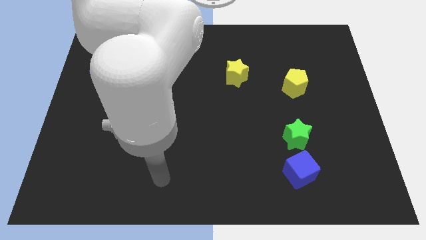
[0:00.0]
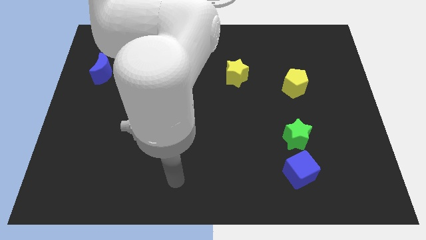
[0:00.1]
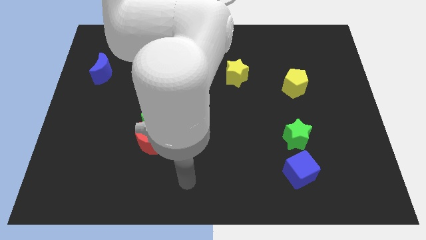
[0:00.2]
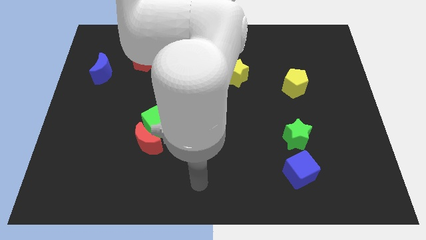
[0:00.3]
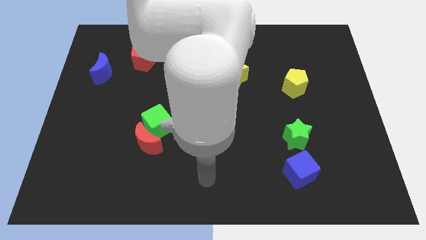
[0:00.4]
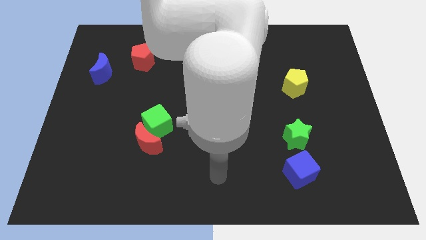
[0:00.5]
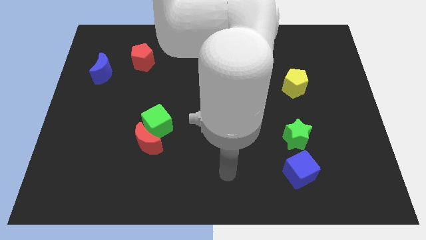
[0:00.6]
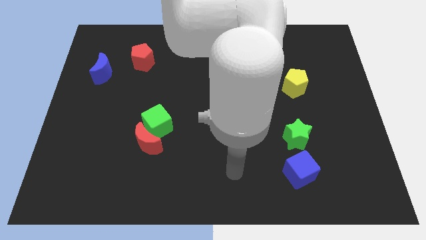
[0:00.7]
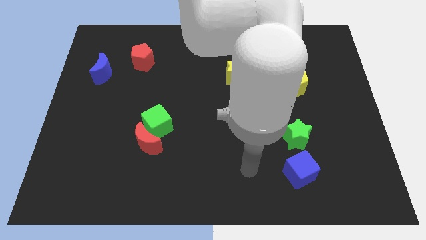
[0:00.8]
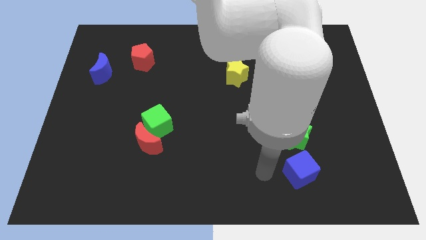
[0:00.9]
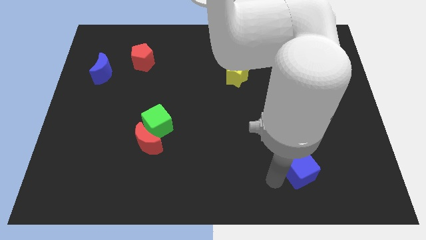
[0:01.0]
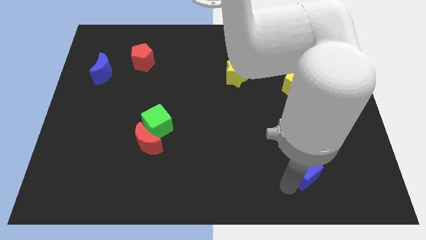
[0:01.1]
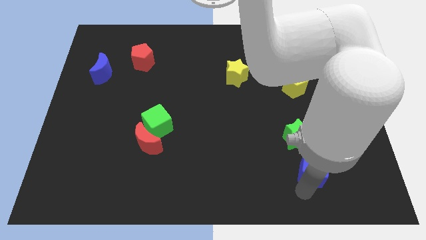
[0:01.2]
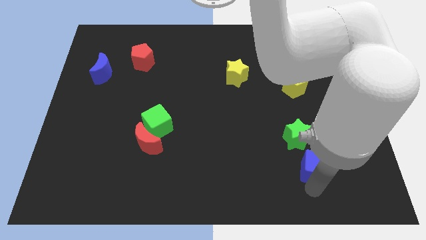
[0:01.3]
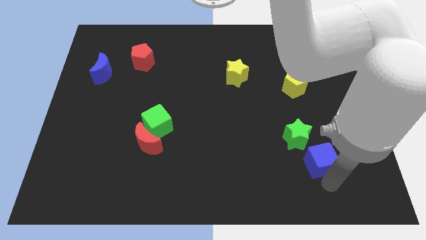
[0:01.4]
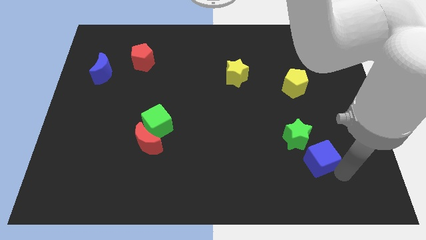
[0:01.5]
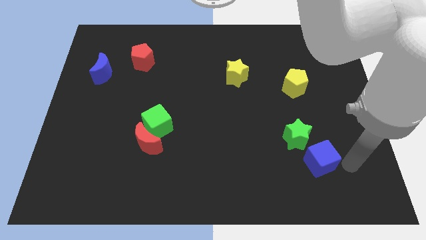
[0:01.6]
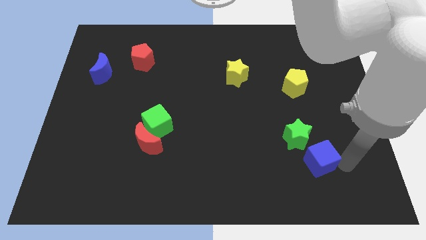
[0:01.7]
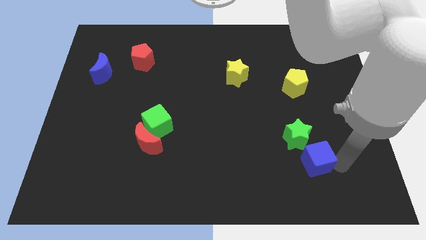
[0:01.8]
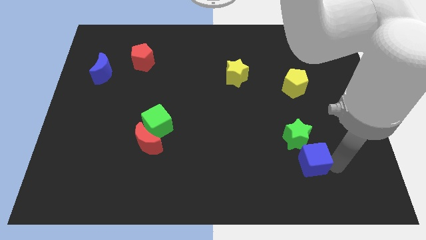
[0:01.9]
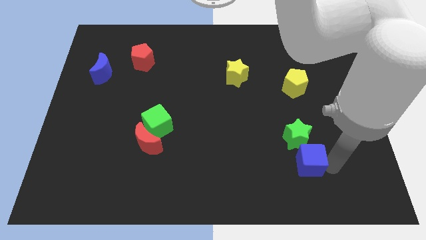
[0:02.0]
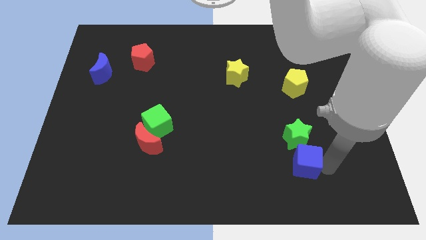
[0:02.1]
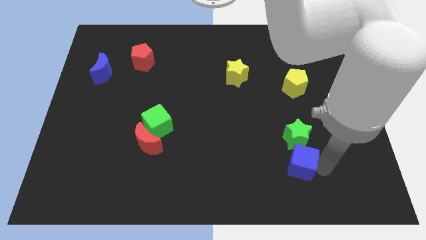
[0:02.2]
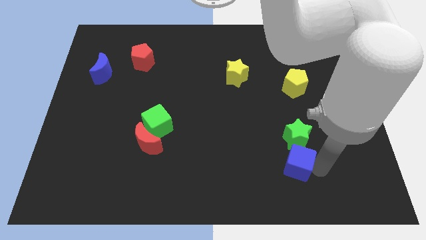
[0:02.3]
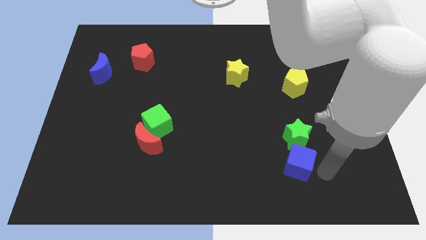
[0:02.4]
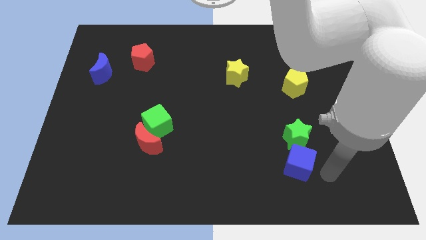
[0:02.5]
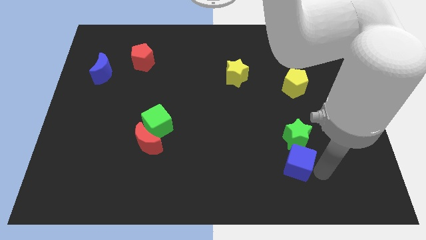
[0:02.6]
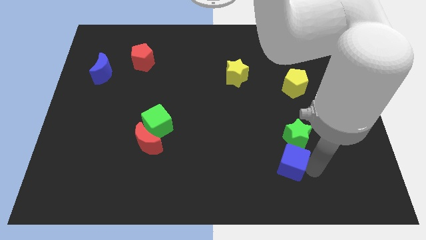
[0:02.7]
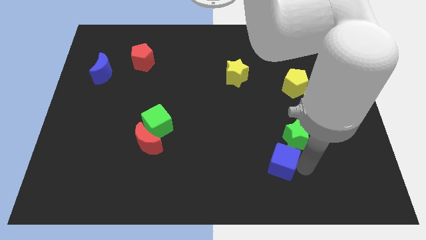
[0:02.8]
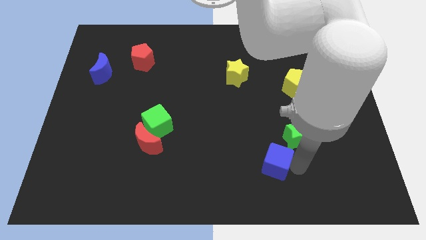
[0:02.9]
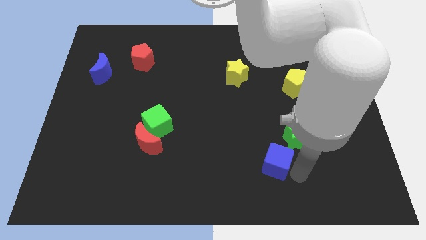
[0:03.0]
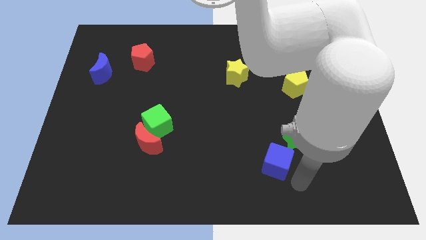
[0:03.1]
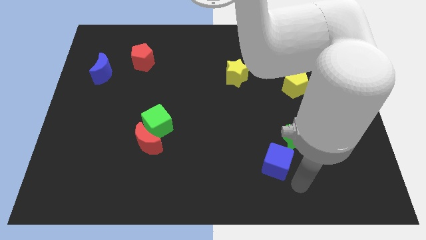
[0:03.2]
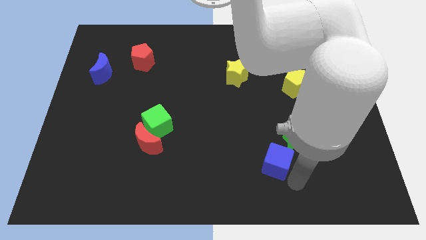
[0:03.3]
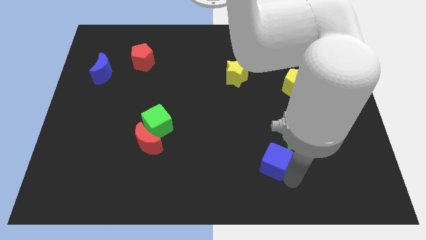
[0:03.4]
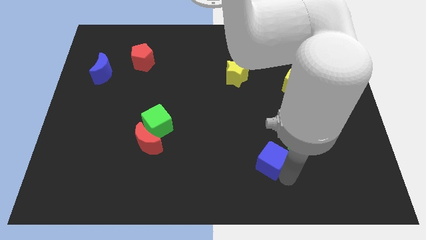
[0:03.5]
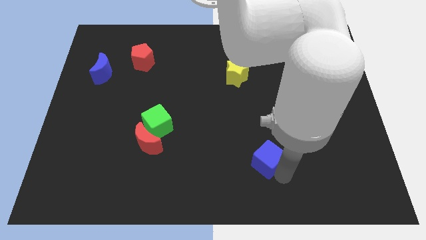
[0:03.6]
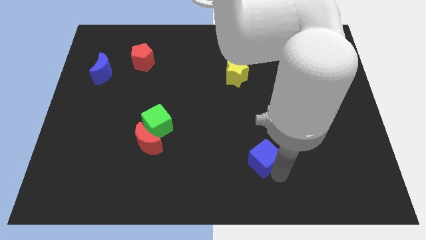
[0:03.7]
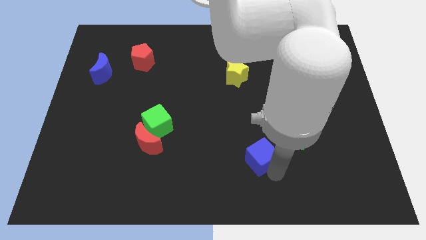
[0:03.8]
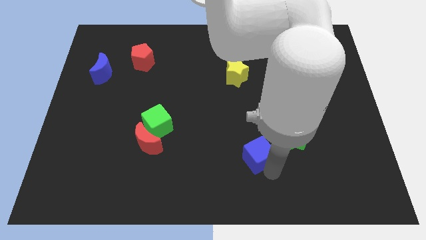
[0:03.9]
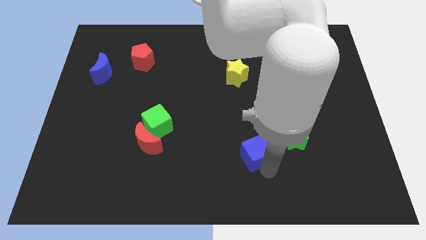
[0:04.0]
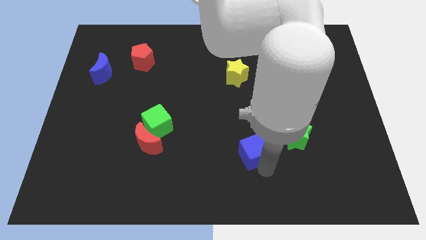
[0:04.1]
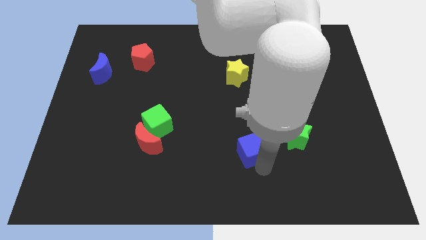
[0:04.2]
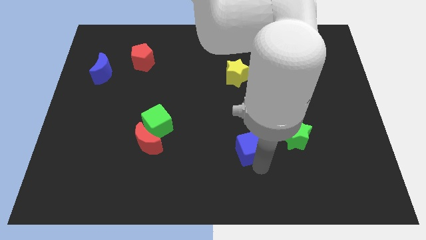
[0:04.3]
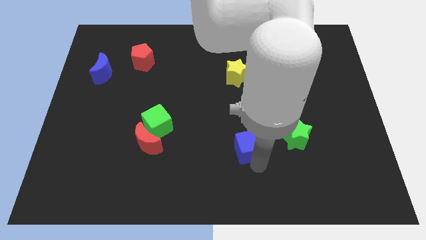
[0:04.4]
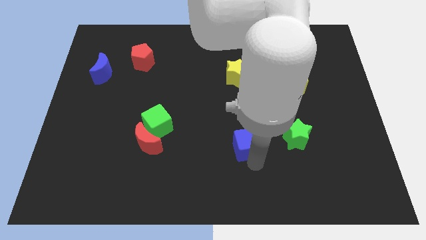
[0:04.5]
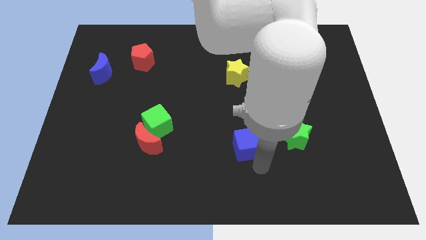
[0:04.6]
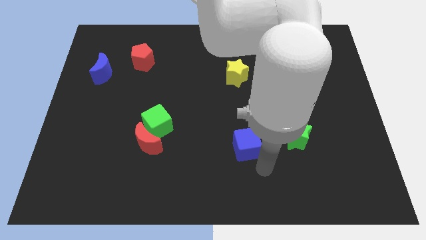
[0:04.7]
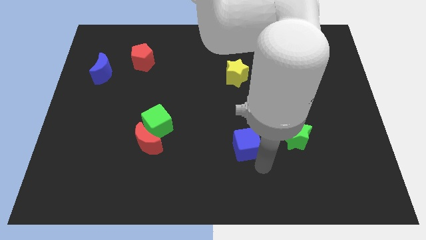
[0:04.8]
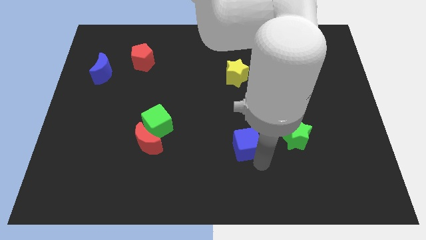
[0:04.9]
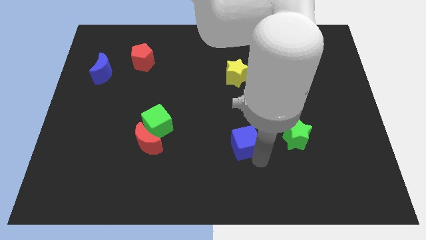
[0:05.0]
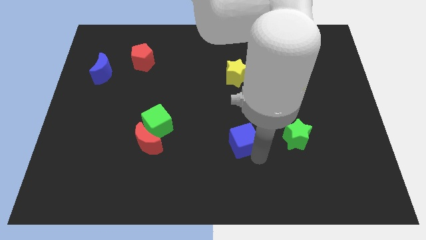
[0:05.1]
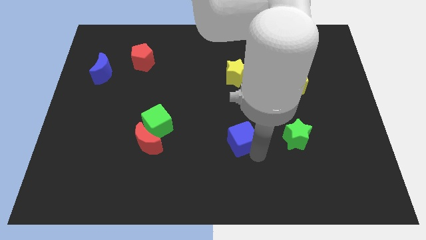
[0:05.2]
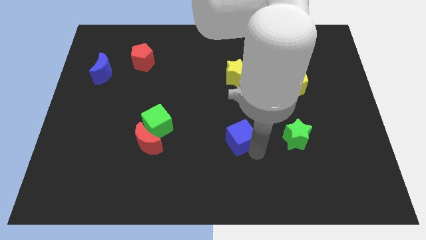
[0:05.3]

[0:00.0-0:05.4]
slide the blue cube to the middle

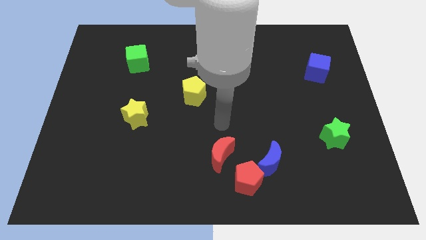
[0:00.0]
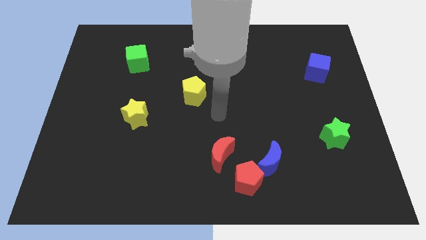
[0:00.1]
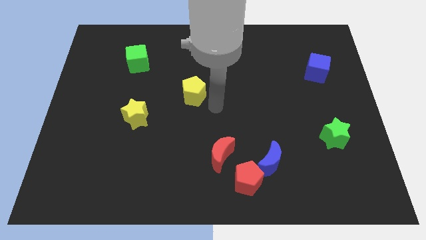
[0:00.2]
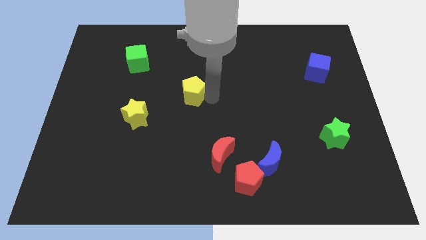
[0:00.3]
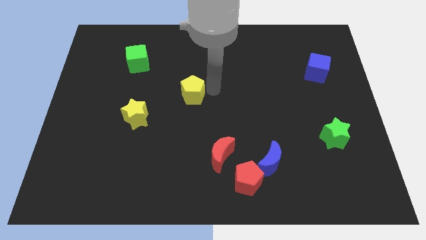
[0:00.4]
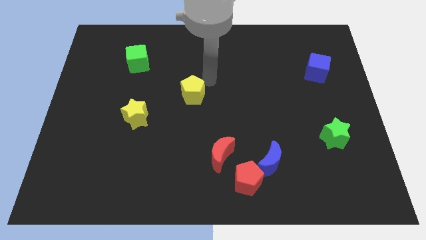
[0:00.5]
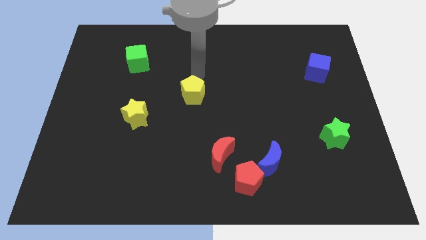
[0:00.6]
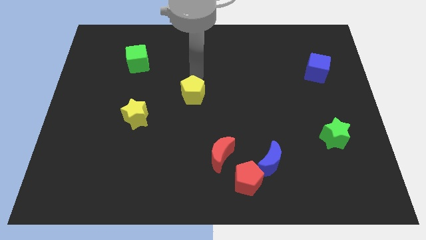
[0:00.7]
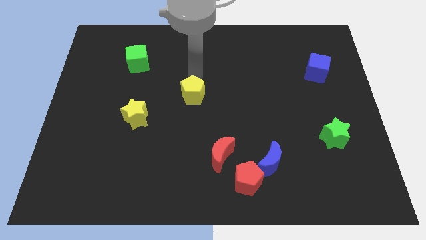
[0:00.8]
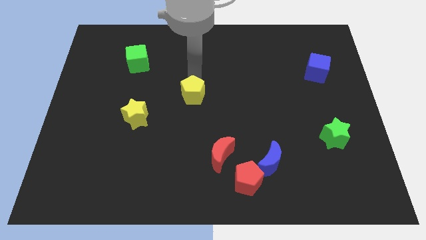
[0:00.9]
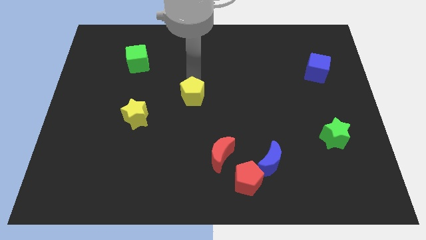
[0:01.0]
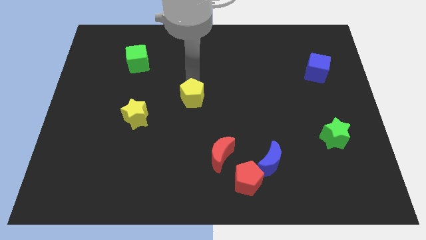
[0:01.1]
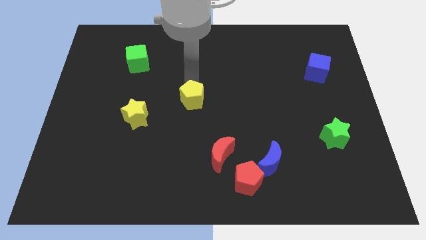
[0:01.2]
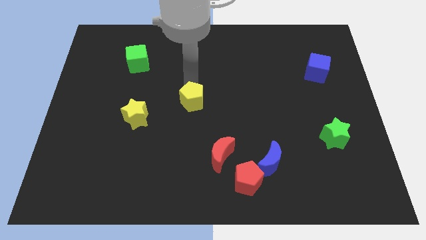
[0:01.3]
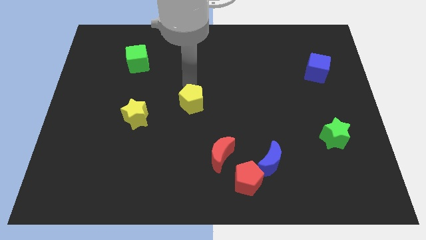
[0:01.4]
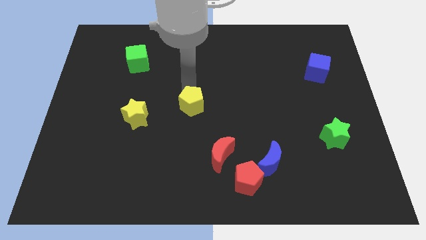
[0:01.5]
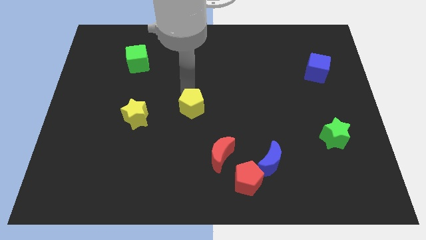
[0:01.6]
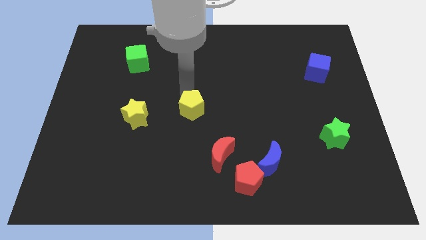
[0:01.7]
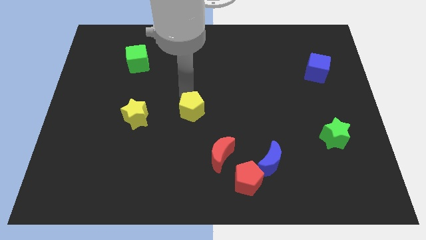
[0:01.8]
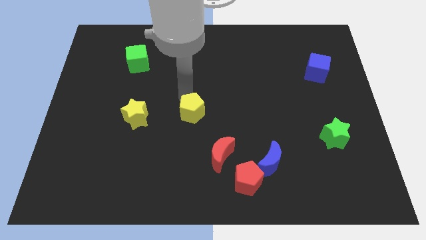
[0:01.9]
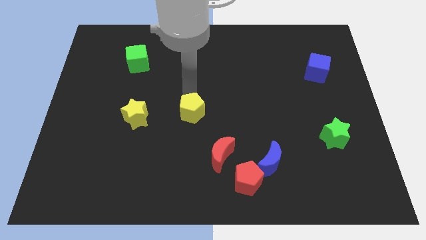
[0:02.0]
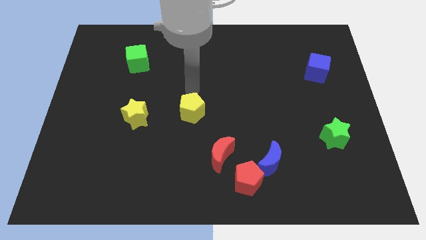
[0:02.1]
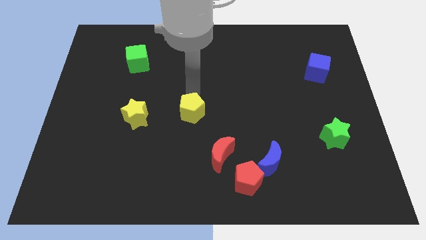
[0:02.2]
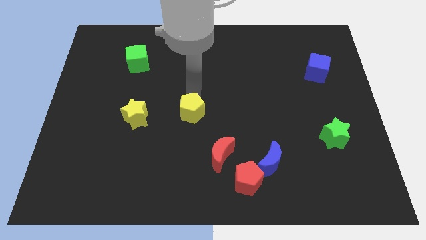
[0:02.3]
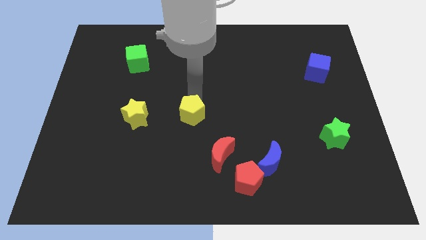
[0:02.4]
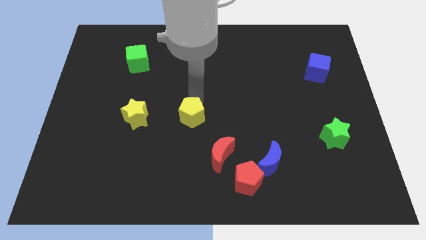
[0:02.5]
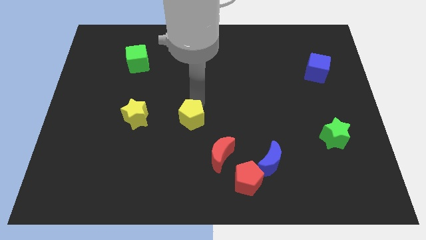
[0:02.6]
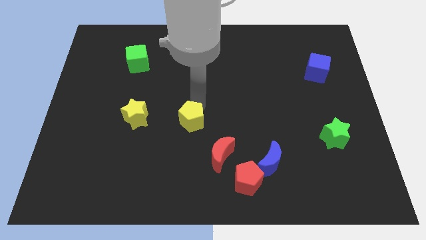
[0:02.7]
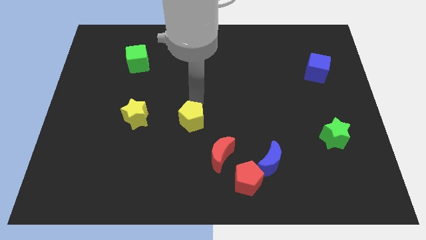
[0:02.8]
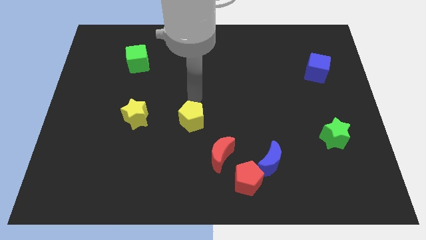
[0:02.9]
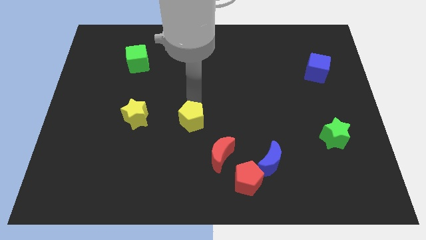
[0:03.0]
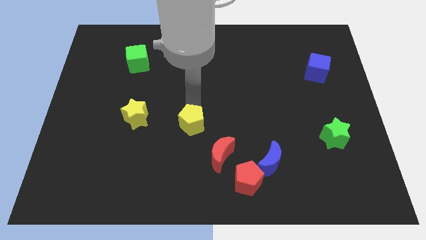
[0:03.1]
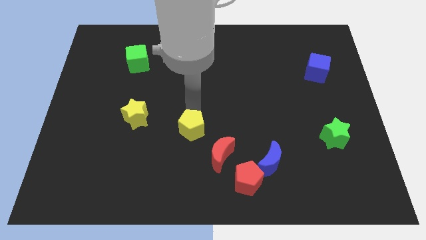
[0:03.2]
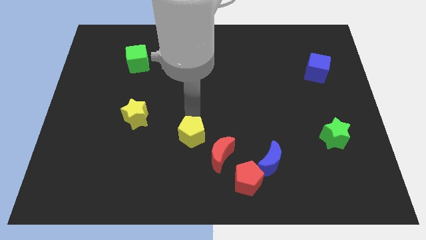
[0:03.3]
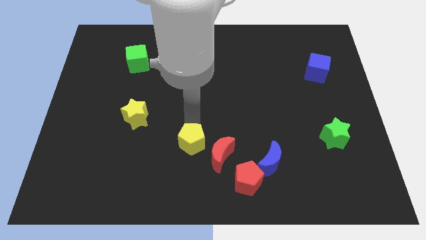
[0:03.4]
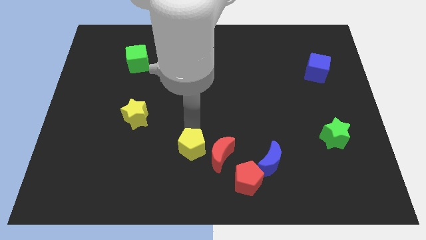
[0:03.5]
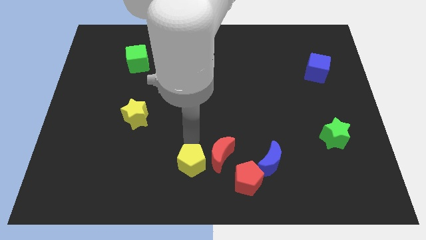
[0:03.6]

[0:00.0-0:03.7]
slide the yellow pentagon to the bottom side
